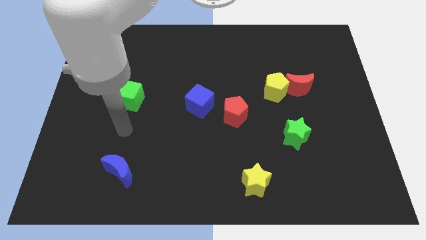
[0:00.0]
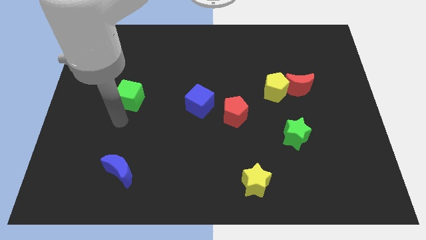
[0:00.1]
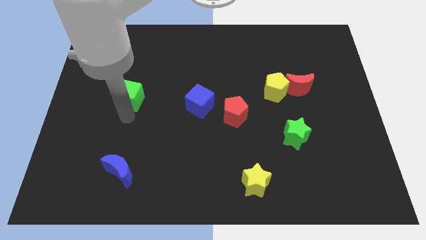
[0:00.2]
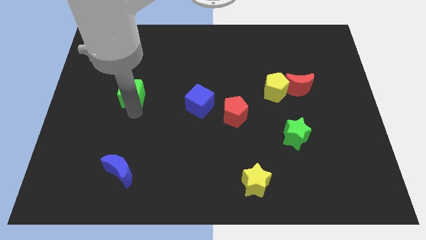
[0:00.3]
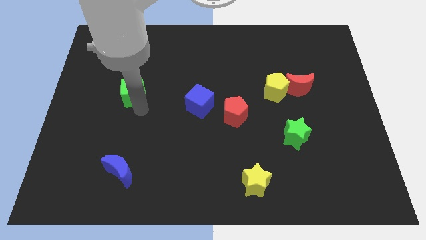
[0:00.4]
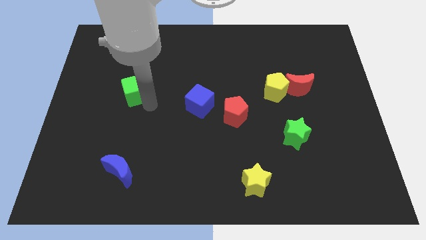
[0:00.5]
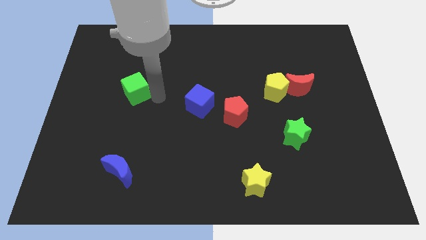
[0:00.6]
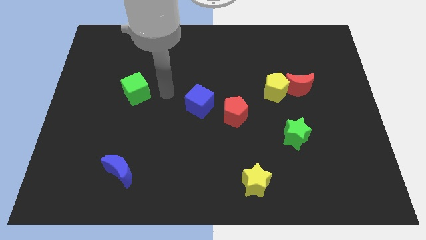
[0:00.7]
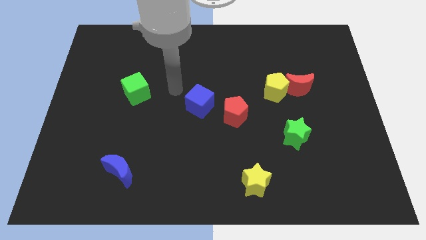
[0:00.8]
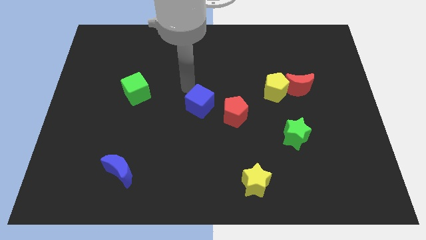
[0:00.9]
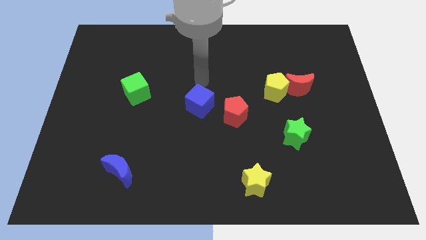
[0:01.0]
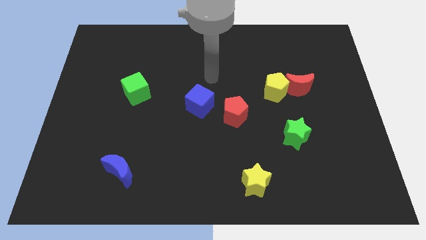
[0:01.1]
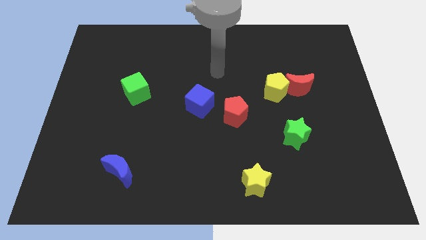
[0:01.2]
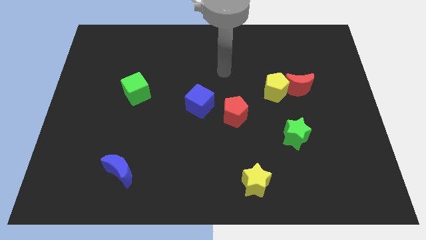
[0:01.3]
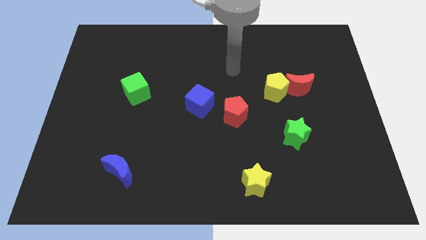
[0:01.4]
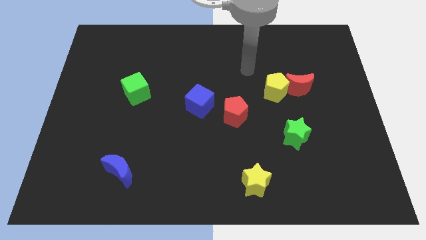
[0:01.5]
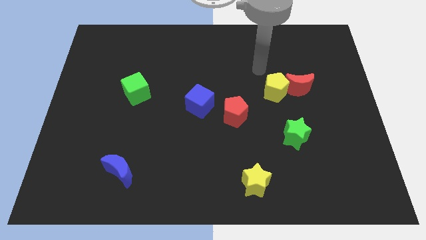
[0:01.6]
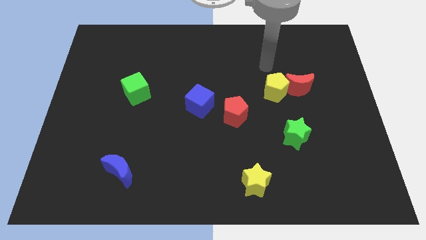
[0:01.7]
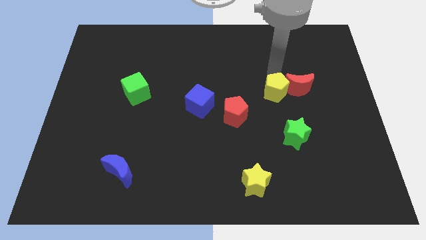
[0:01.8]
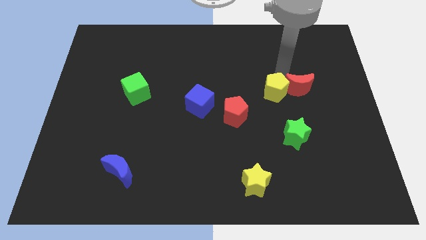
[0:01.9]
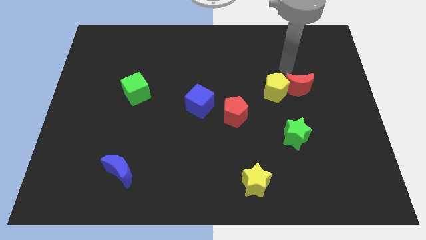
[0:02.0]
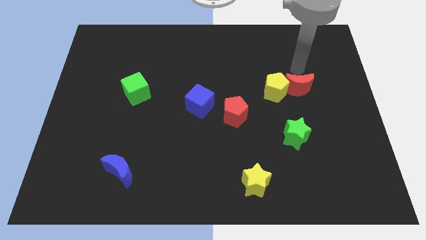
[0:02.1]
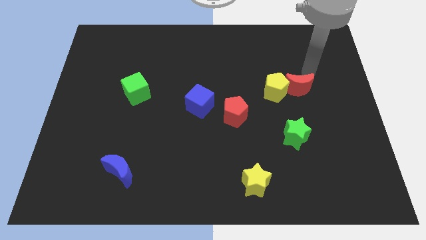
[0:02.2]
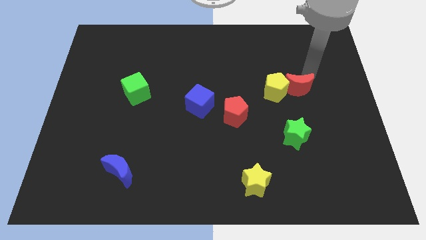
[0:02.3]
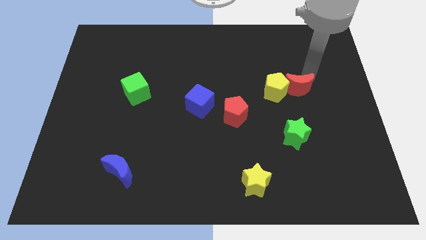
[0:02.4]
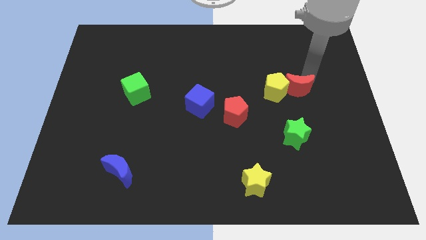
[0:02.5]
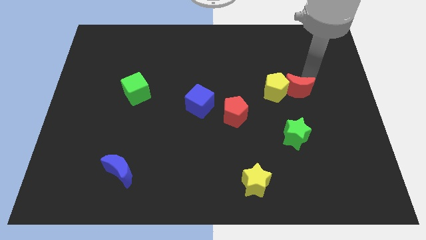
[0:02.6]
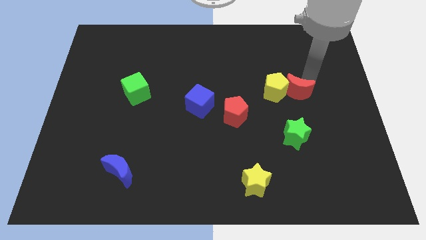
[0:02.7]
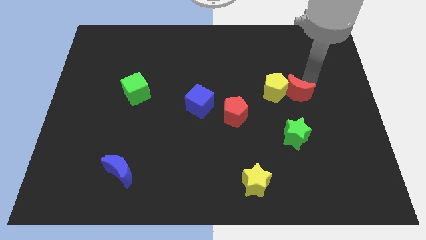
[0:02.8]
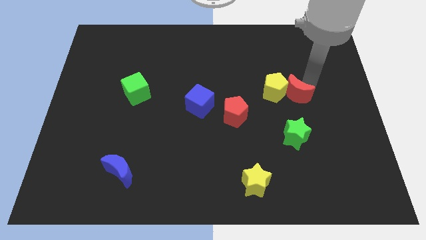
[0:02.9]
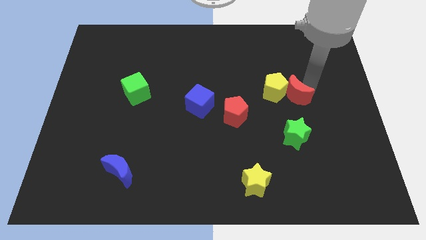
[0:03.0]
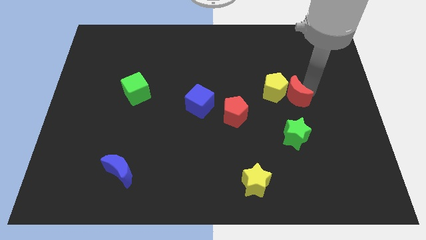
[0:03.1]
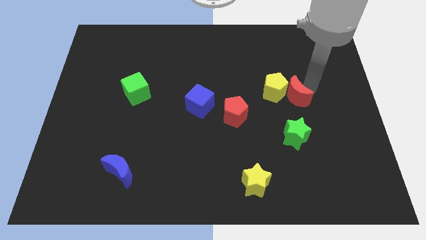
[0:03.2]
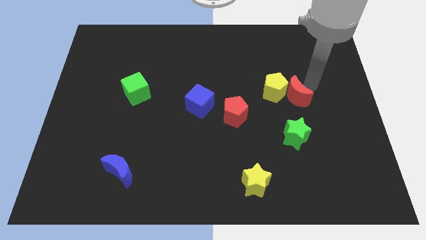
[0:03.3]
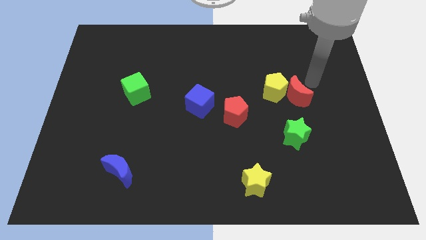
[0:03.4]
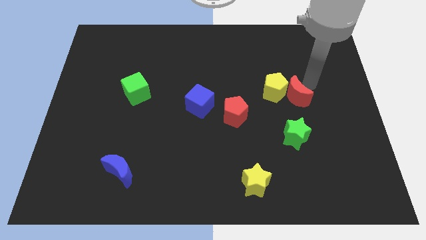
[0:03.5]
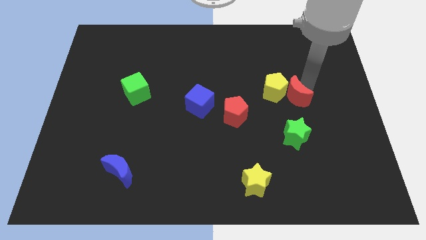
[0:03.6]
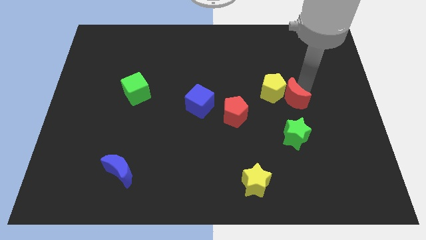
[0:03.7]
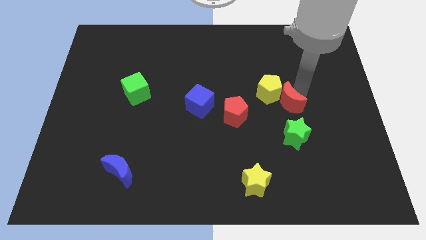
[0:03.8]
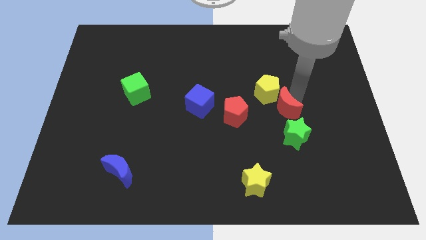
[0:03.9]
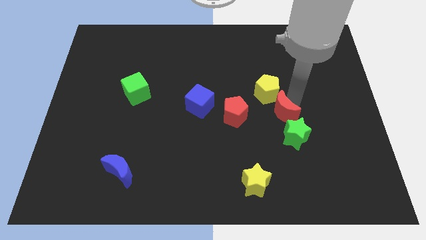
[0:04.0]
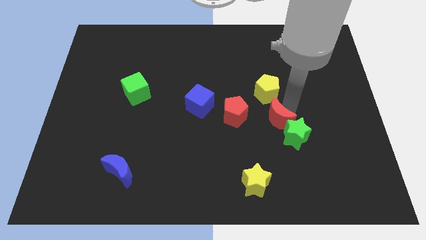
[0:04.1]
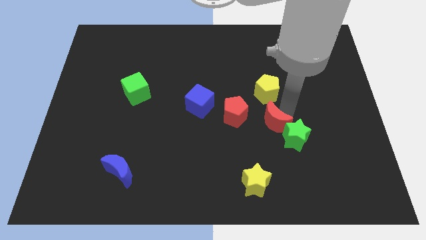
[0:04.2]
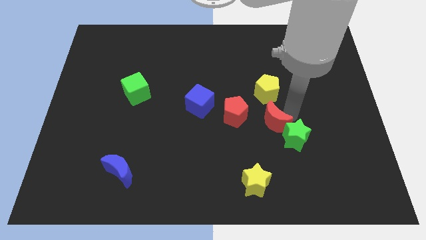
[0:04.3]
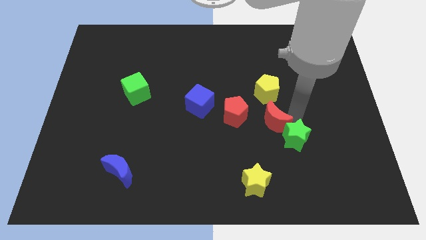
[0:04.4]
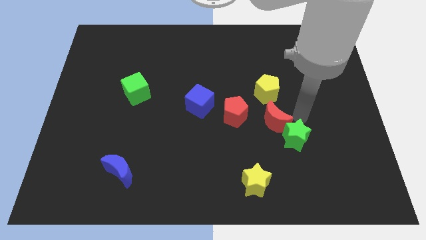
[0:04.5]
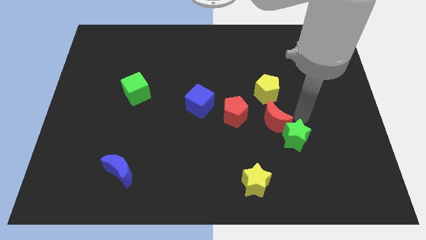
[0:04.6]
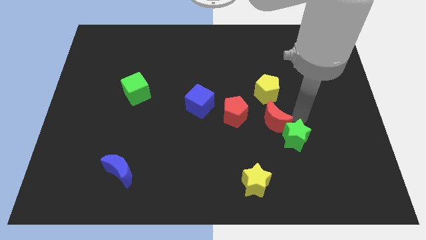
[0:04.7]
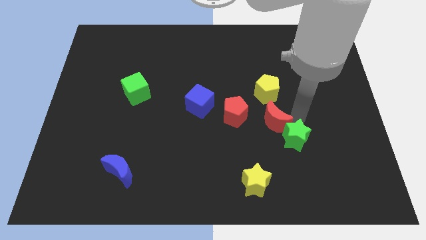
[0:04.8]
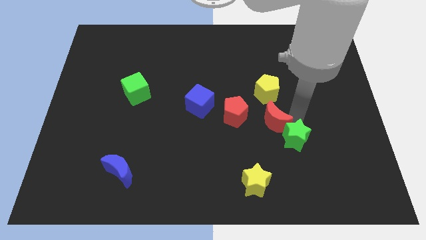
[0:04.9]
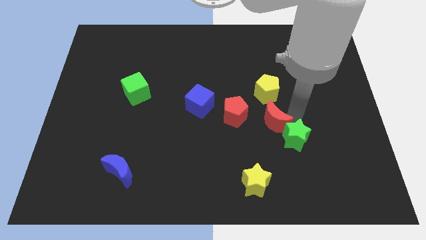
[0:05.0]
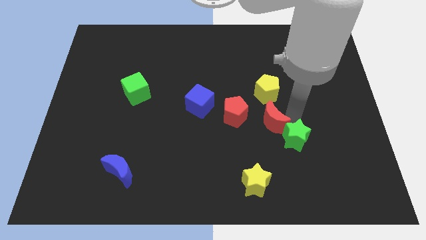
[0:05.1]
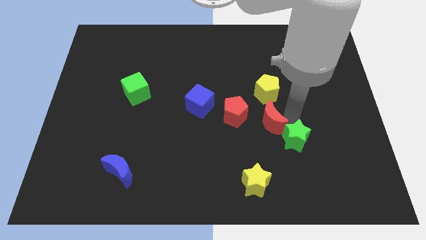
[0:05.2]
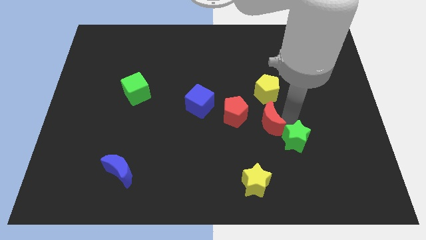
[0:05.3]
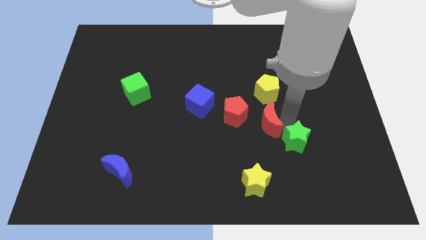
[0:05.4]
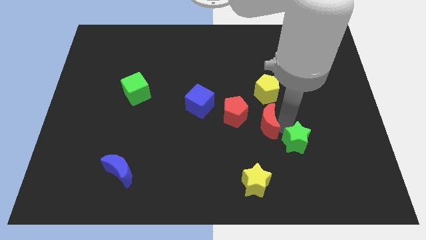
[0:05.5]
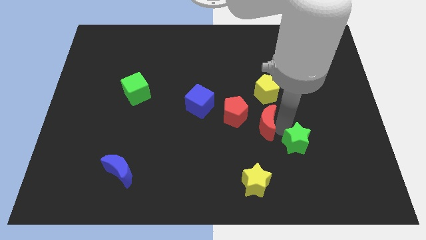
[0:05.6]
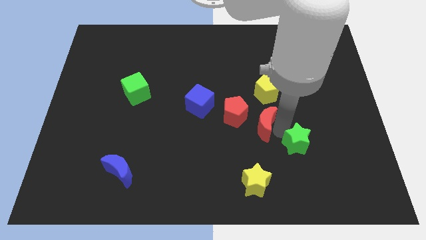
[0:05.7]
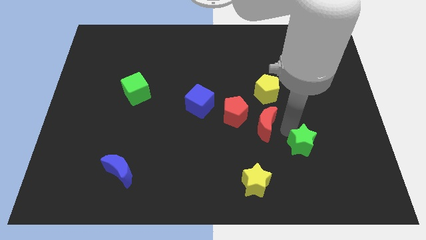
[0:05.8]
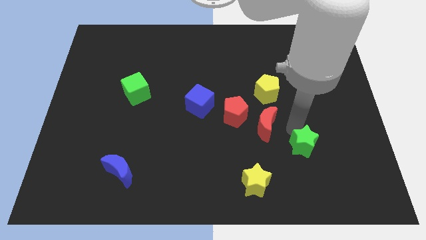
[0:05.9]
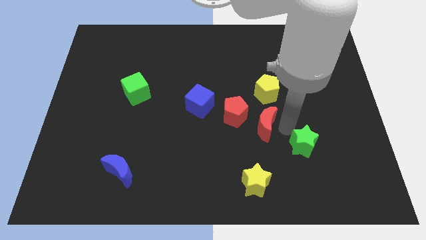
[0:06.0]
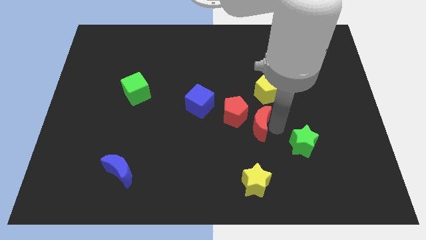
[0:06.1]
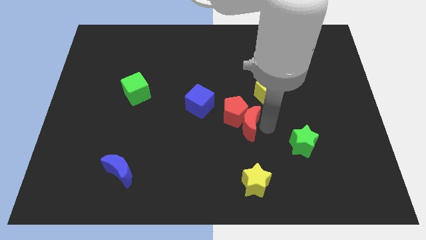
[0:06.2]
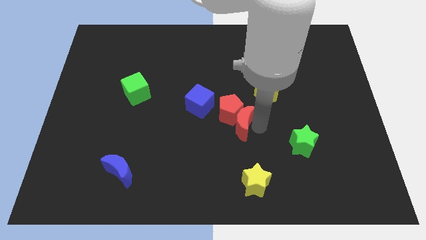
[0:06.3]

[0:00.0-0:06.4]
move the red moon to the bottom right of the blue cube

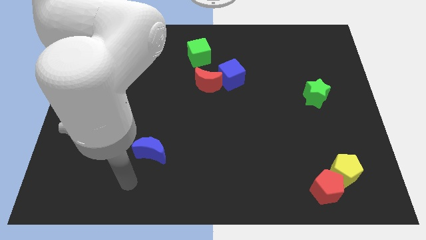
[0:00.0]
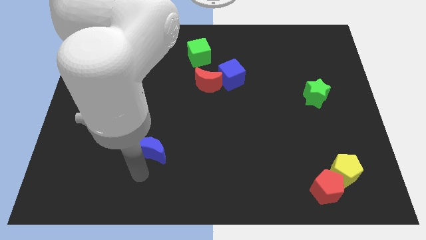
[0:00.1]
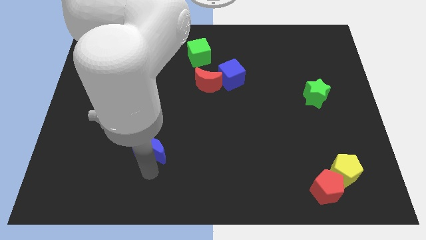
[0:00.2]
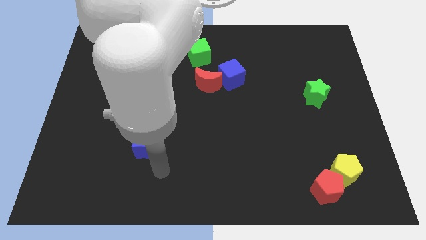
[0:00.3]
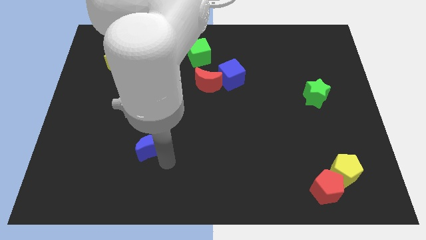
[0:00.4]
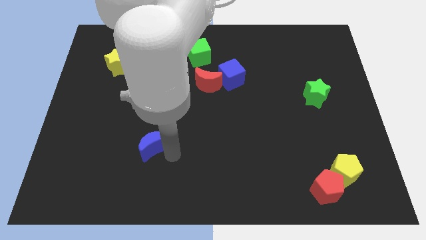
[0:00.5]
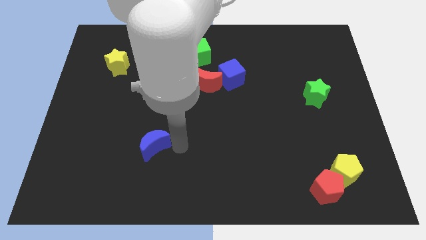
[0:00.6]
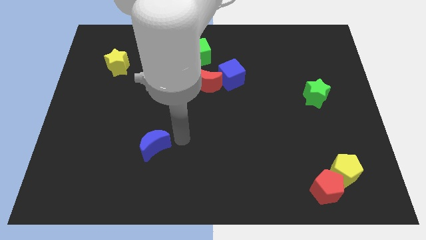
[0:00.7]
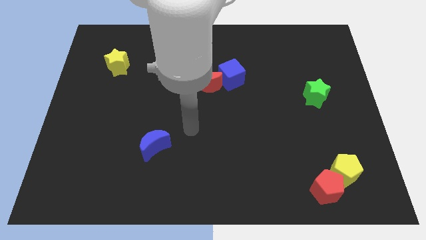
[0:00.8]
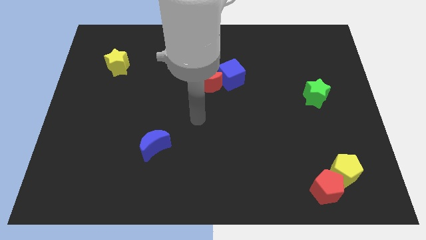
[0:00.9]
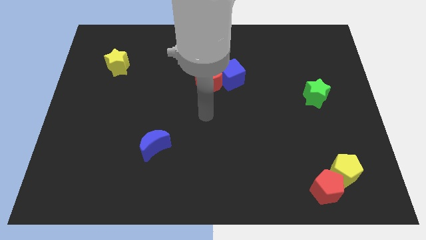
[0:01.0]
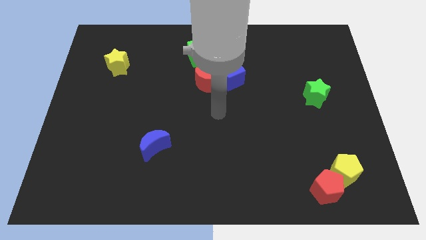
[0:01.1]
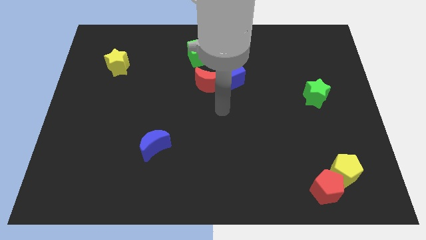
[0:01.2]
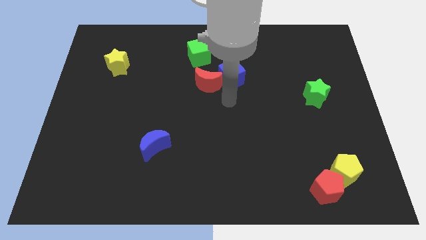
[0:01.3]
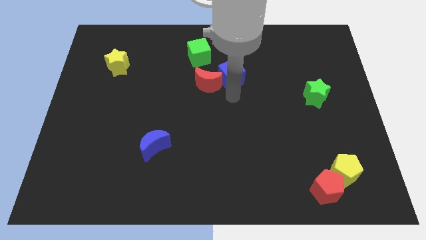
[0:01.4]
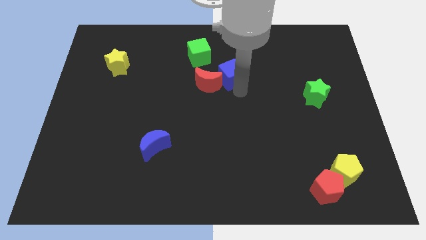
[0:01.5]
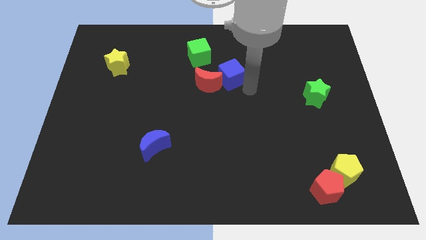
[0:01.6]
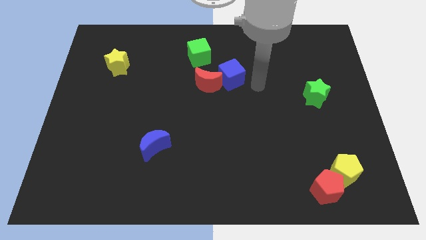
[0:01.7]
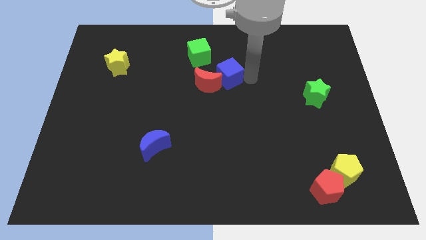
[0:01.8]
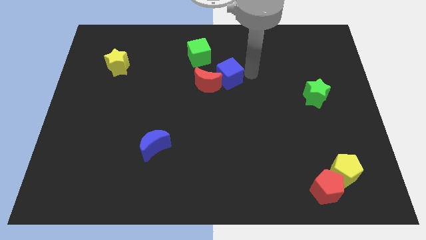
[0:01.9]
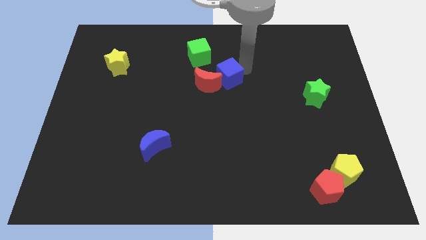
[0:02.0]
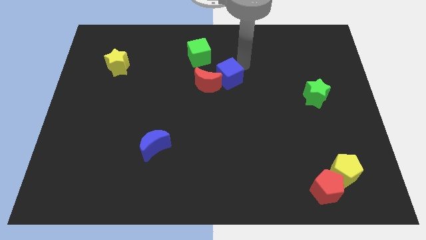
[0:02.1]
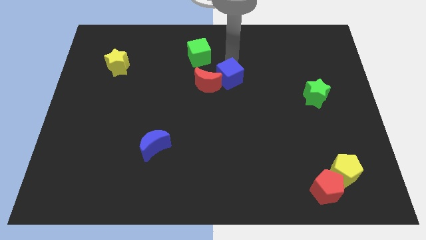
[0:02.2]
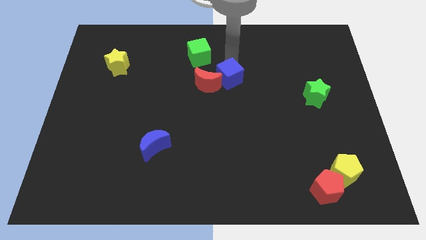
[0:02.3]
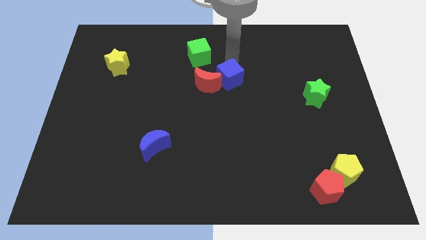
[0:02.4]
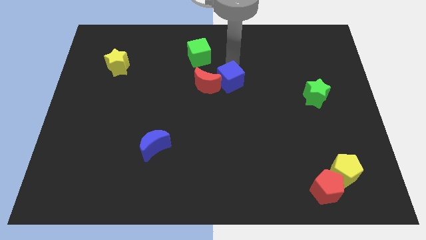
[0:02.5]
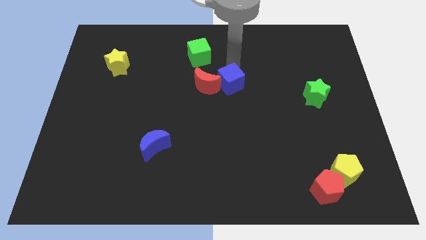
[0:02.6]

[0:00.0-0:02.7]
put the blue cube diagonally down and to the right of the red moon
